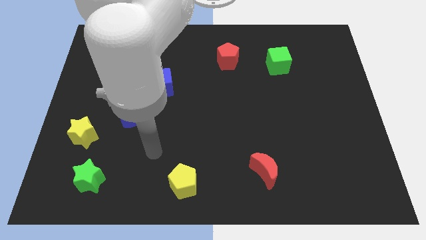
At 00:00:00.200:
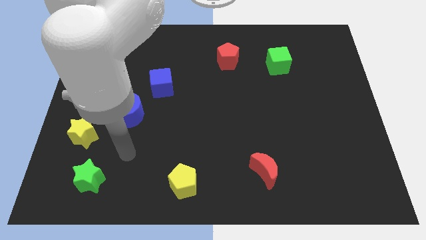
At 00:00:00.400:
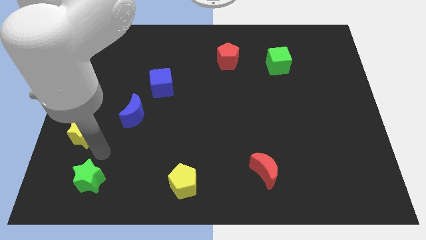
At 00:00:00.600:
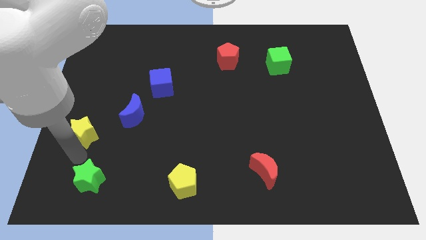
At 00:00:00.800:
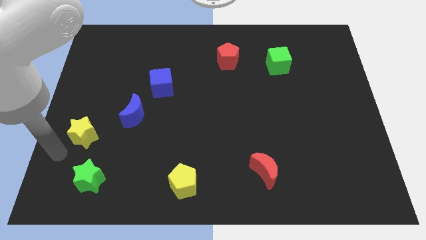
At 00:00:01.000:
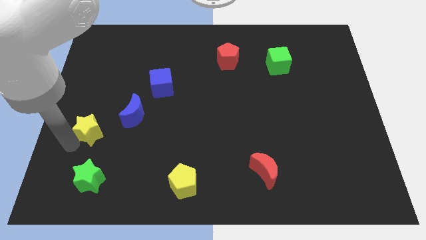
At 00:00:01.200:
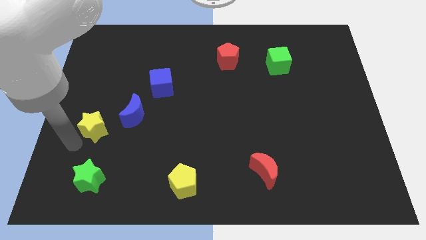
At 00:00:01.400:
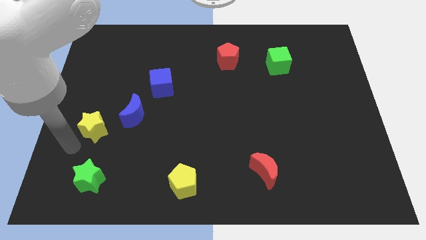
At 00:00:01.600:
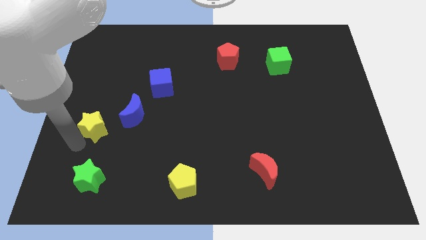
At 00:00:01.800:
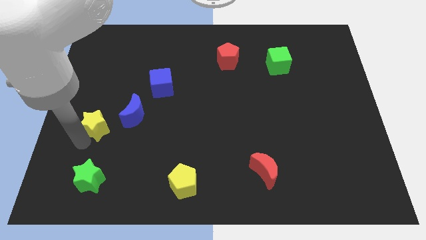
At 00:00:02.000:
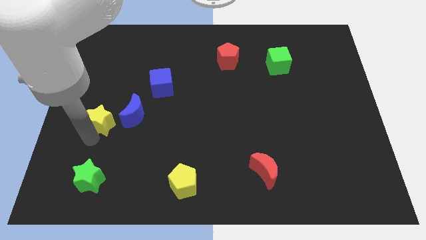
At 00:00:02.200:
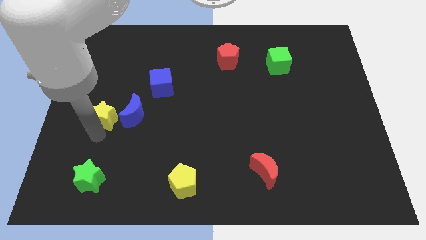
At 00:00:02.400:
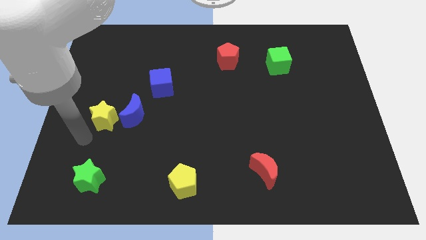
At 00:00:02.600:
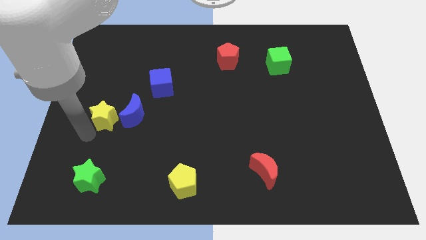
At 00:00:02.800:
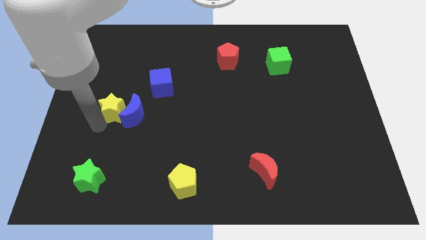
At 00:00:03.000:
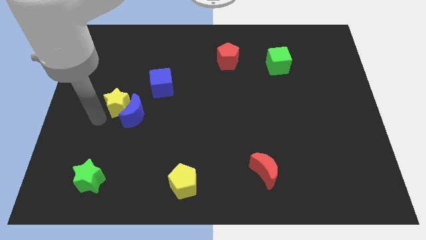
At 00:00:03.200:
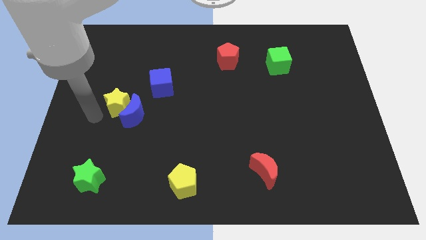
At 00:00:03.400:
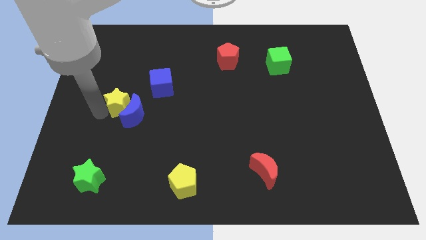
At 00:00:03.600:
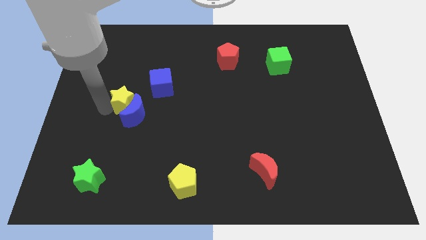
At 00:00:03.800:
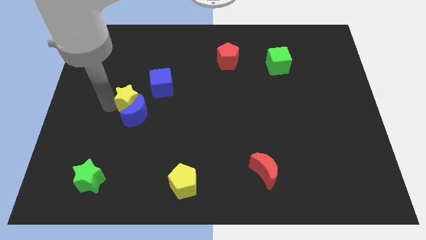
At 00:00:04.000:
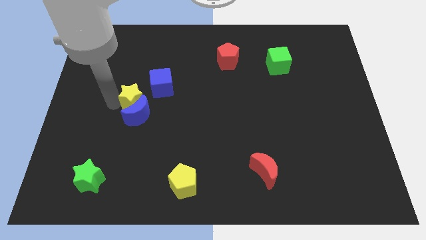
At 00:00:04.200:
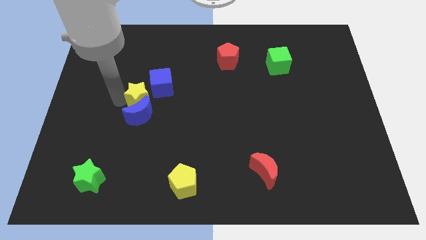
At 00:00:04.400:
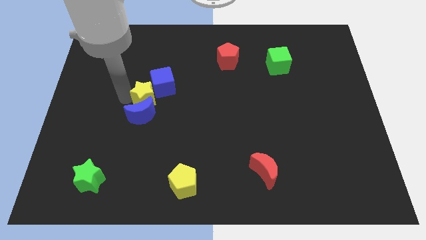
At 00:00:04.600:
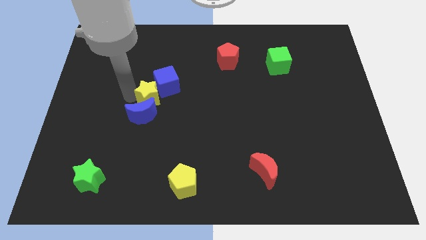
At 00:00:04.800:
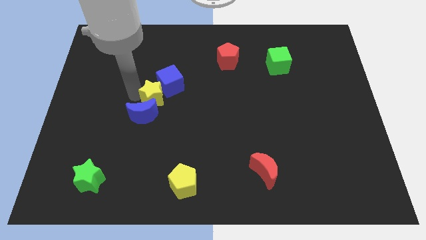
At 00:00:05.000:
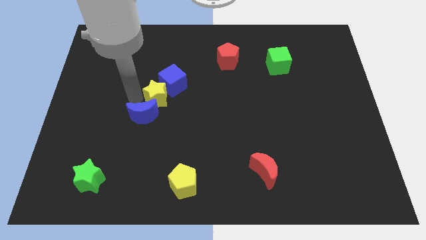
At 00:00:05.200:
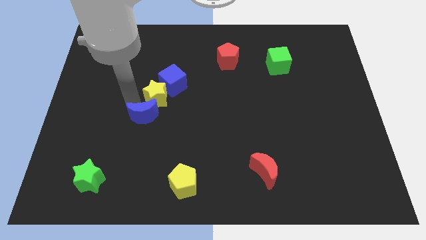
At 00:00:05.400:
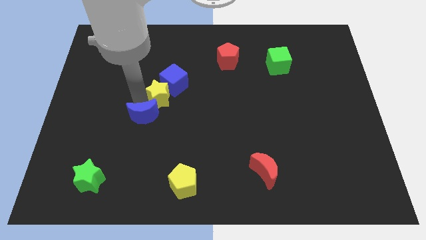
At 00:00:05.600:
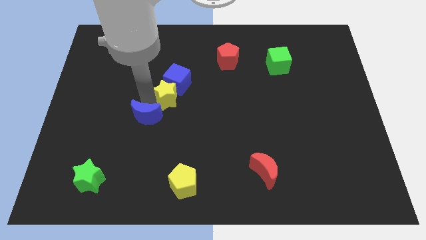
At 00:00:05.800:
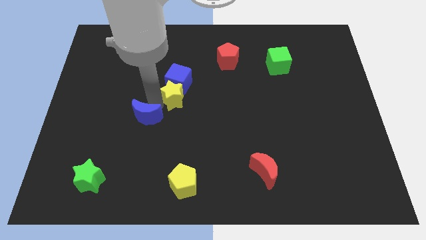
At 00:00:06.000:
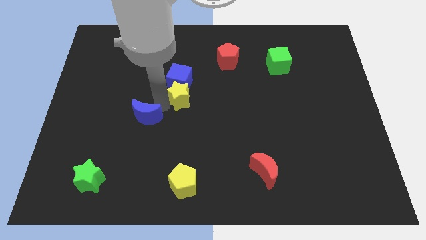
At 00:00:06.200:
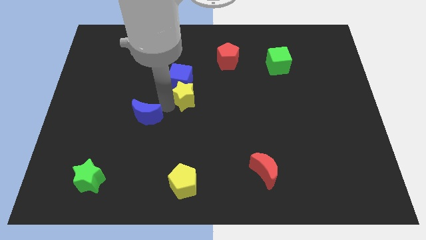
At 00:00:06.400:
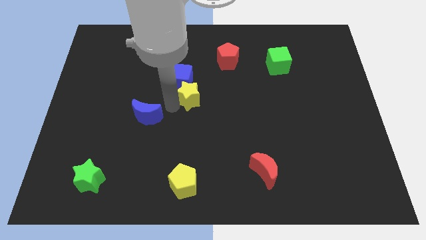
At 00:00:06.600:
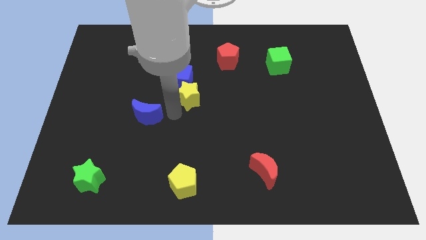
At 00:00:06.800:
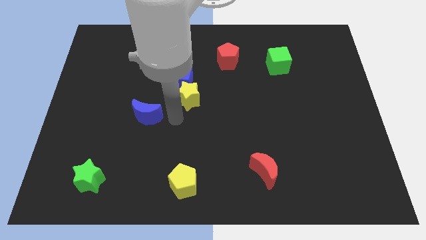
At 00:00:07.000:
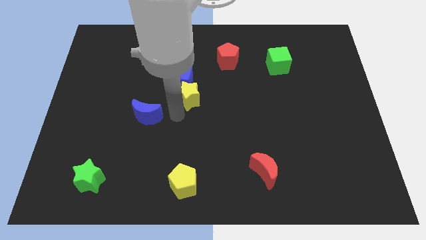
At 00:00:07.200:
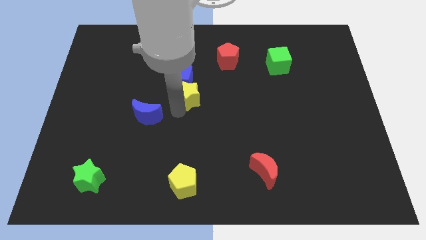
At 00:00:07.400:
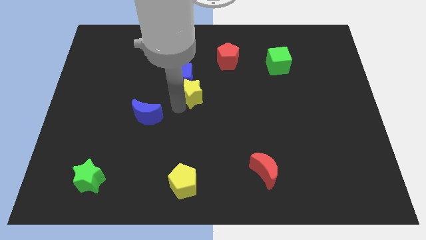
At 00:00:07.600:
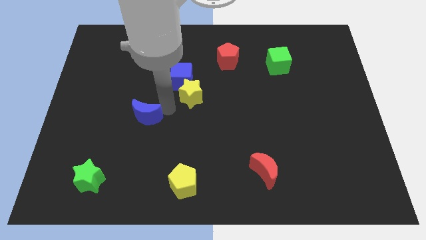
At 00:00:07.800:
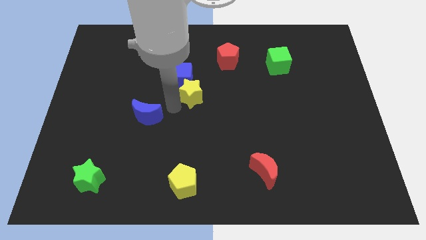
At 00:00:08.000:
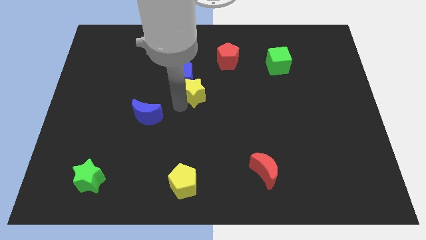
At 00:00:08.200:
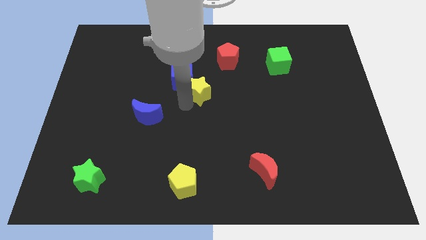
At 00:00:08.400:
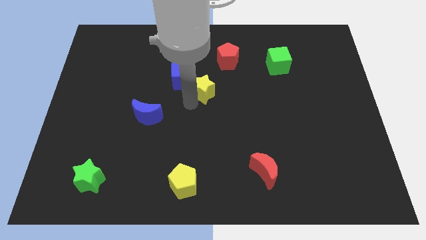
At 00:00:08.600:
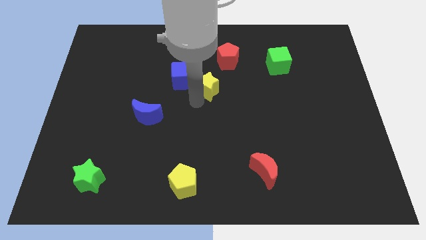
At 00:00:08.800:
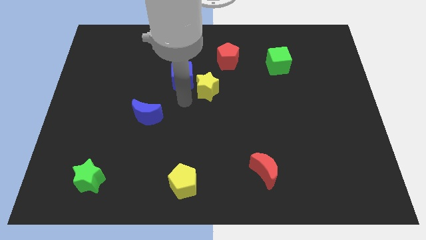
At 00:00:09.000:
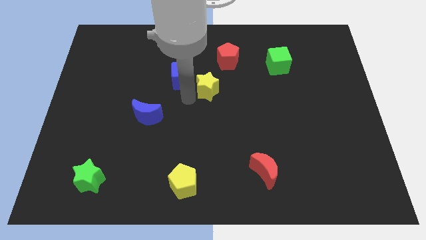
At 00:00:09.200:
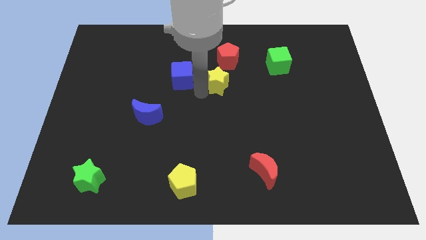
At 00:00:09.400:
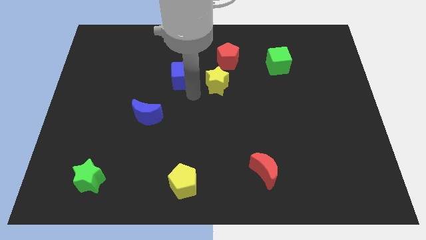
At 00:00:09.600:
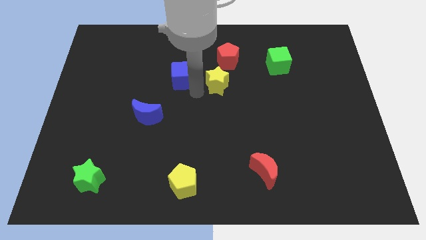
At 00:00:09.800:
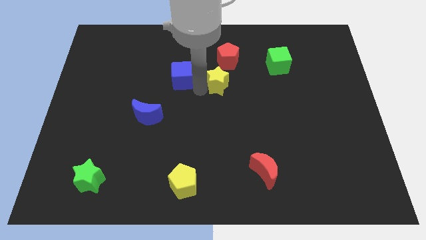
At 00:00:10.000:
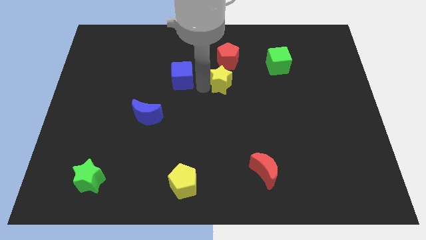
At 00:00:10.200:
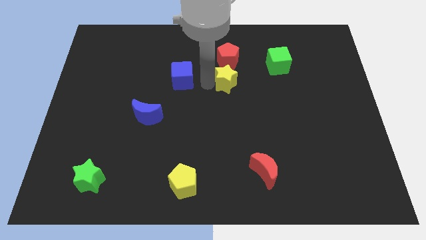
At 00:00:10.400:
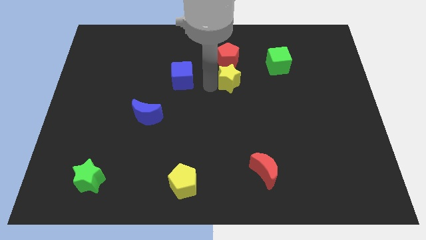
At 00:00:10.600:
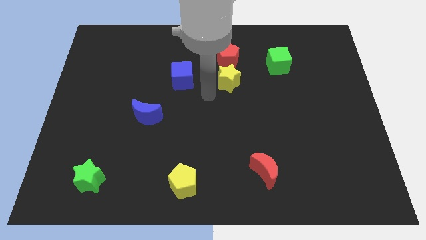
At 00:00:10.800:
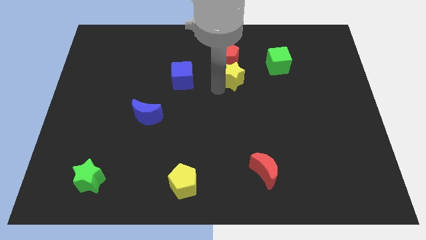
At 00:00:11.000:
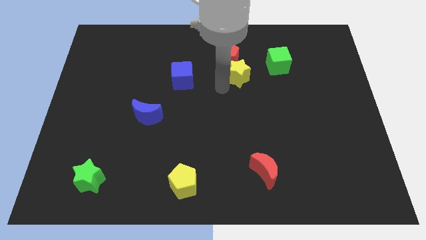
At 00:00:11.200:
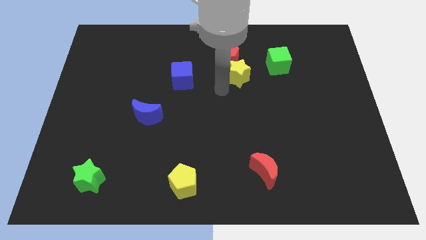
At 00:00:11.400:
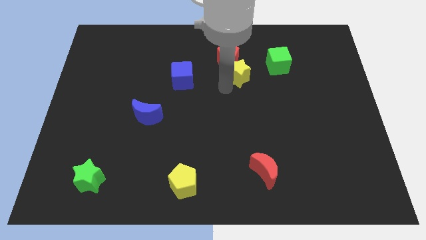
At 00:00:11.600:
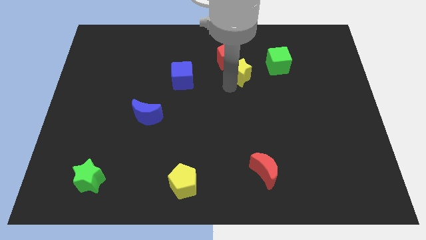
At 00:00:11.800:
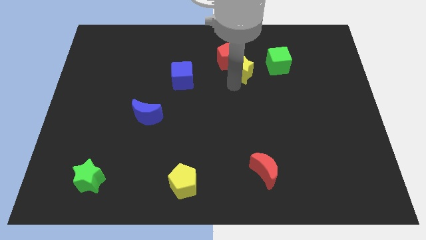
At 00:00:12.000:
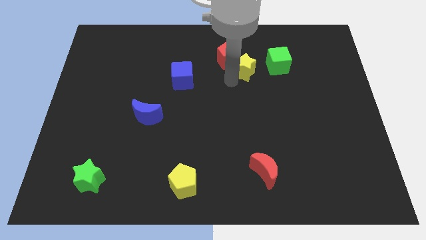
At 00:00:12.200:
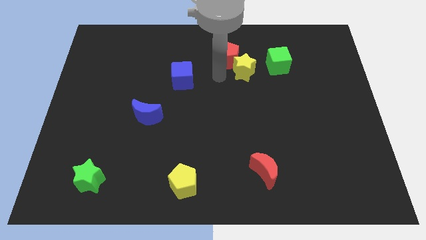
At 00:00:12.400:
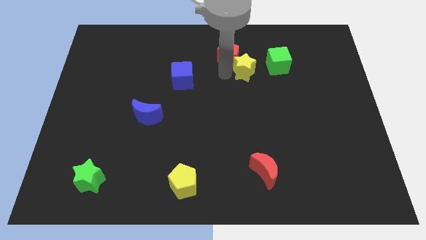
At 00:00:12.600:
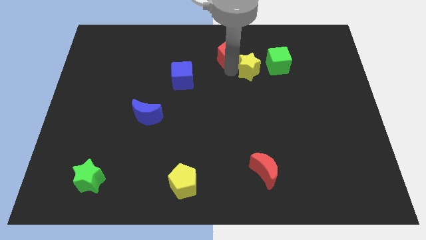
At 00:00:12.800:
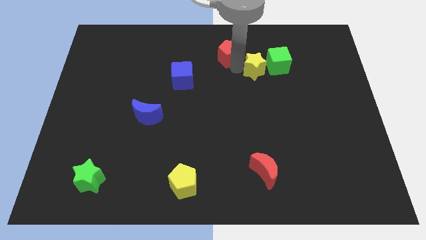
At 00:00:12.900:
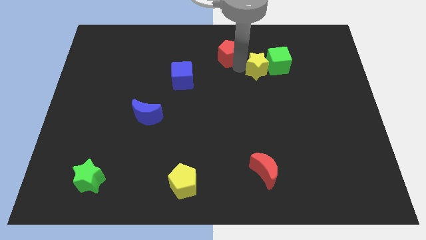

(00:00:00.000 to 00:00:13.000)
slide the yellow star to the green cube

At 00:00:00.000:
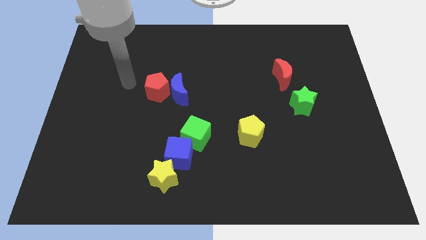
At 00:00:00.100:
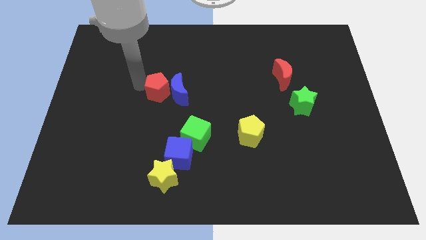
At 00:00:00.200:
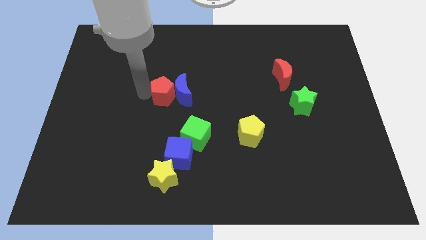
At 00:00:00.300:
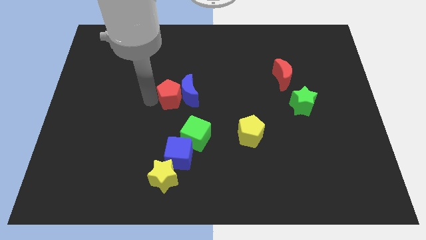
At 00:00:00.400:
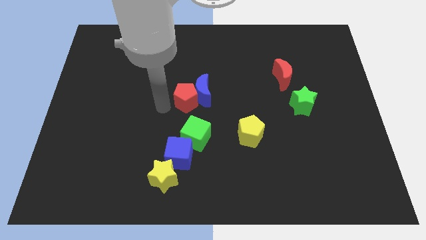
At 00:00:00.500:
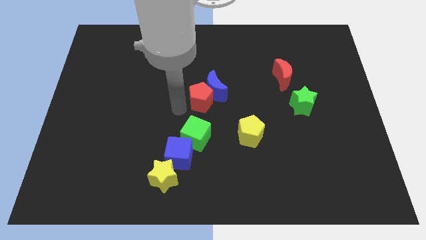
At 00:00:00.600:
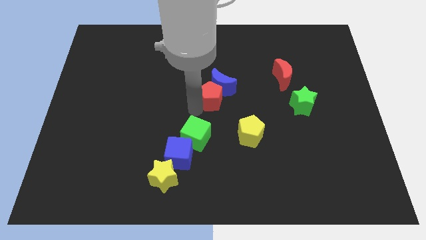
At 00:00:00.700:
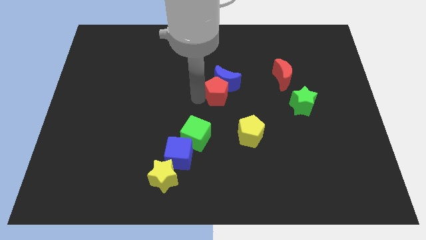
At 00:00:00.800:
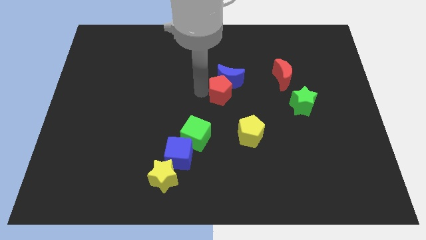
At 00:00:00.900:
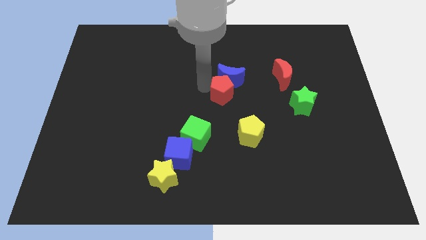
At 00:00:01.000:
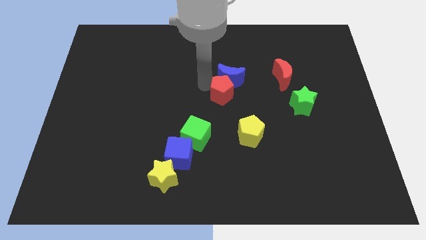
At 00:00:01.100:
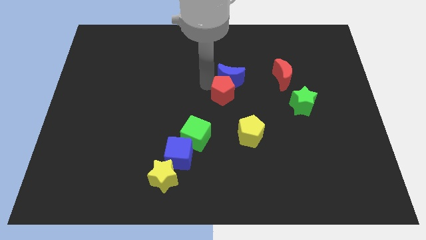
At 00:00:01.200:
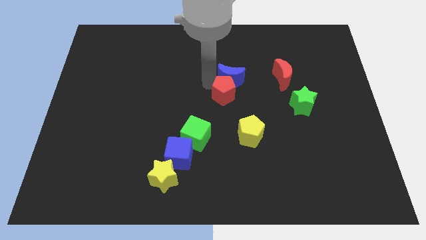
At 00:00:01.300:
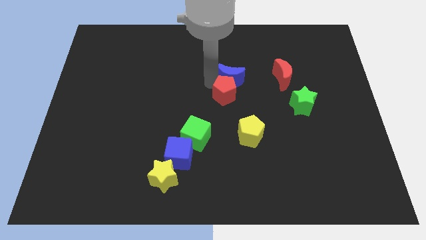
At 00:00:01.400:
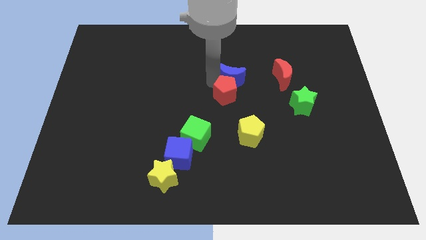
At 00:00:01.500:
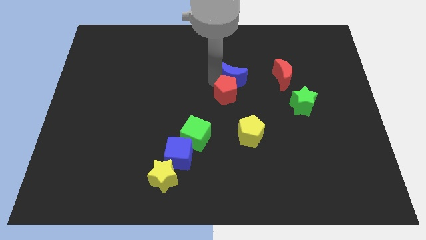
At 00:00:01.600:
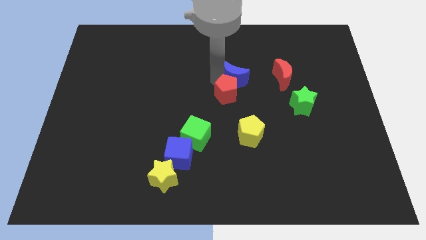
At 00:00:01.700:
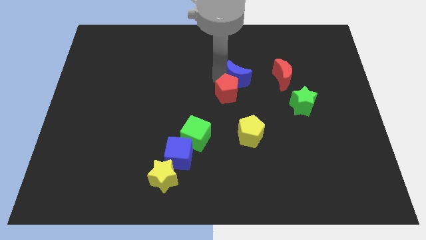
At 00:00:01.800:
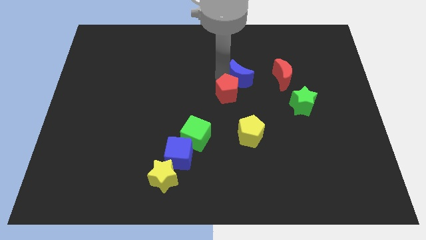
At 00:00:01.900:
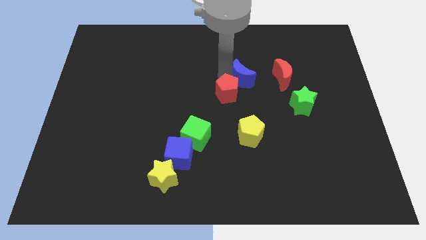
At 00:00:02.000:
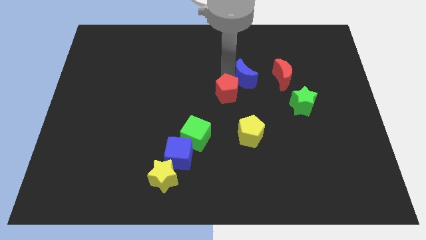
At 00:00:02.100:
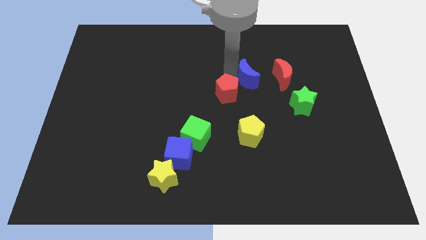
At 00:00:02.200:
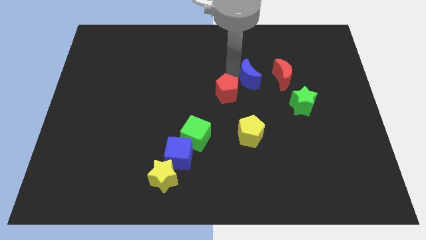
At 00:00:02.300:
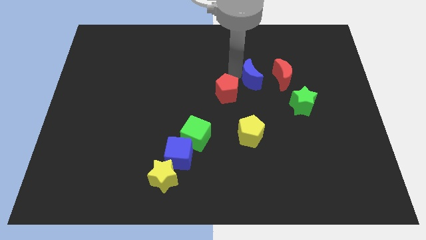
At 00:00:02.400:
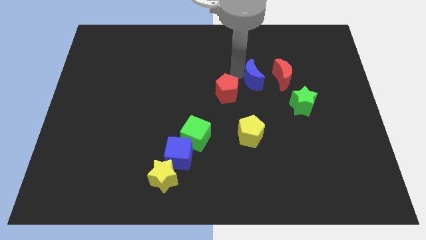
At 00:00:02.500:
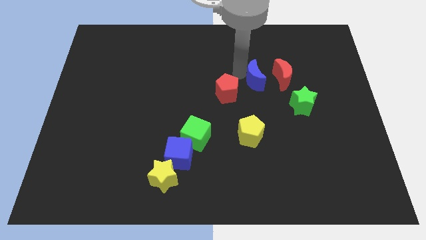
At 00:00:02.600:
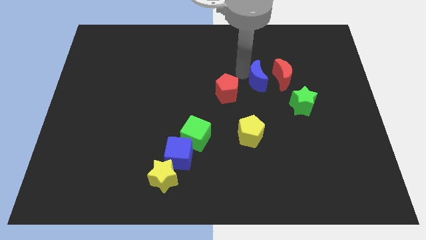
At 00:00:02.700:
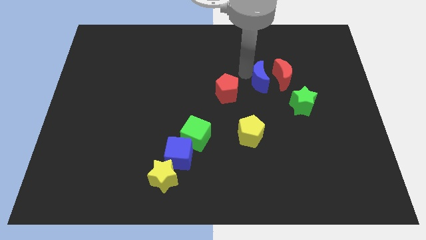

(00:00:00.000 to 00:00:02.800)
push the blue moon towards the red moon
